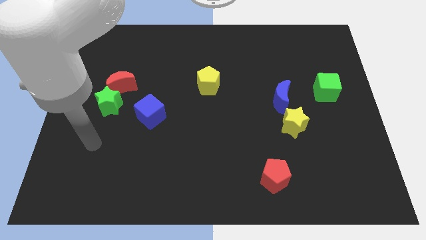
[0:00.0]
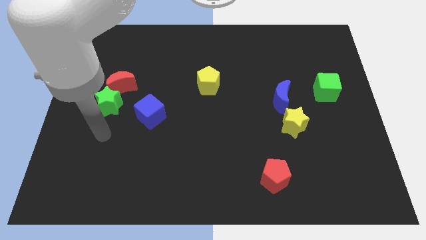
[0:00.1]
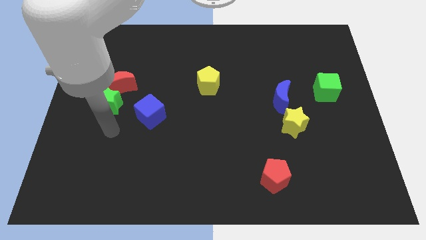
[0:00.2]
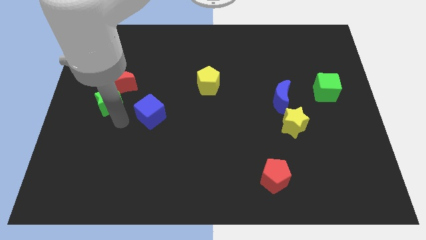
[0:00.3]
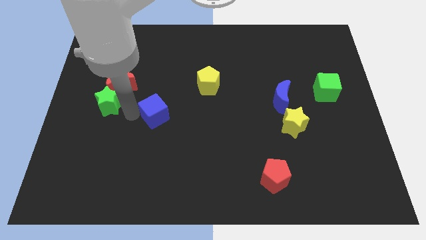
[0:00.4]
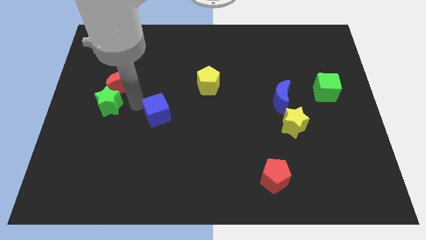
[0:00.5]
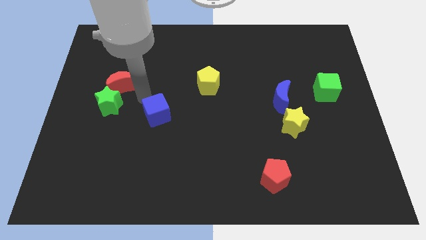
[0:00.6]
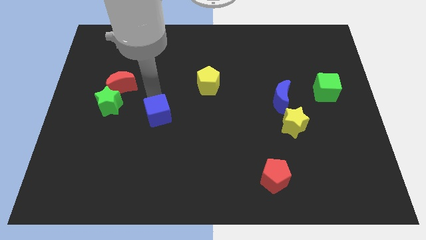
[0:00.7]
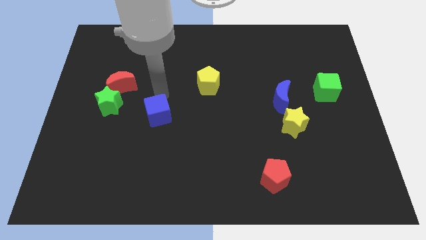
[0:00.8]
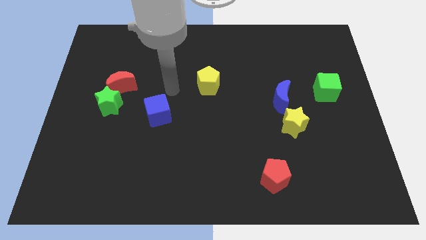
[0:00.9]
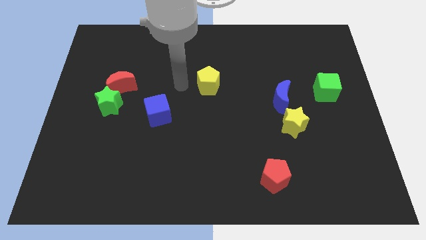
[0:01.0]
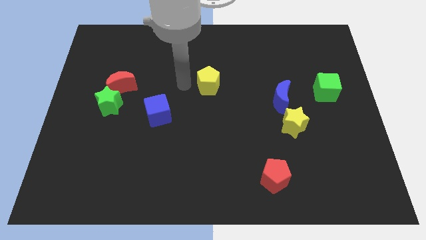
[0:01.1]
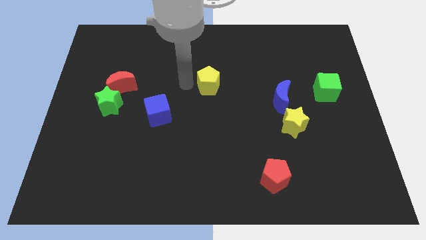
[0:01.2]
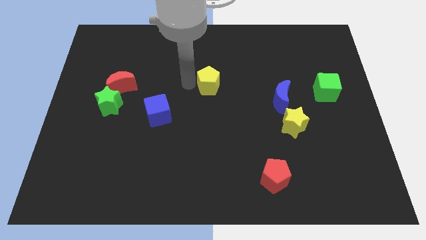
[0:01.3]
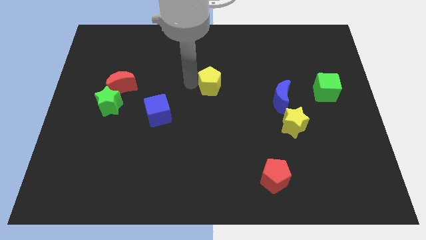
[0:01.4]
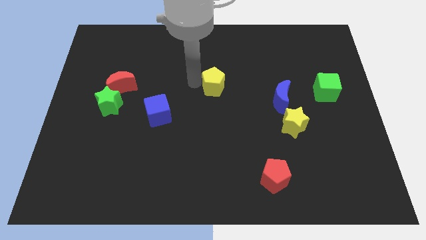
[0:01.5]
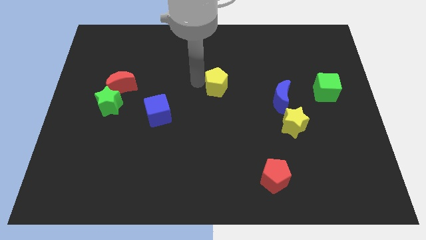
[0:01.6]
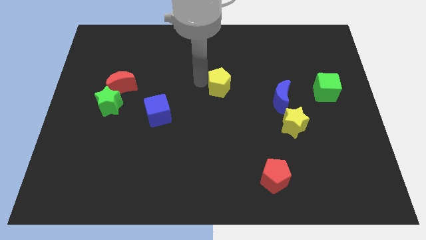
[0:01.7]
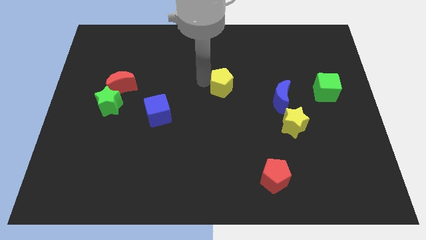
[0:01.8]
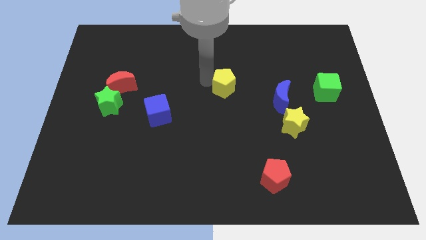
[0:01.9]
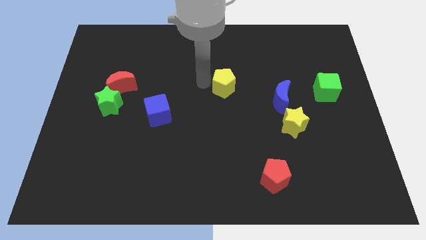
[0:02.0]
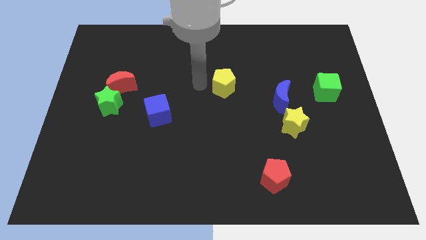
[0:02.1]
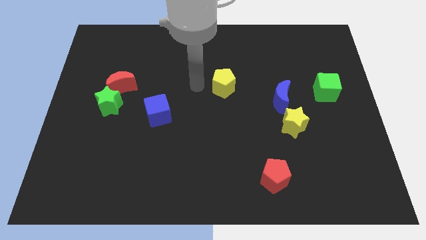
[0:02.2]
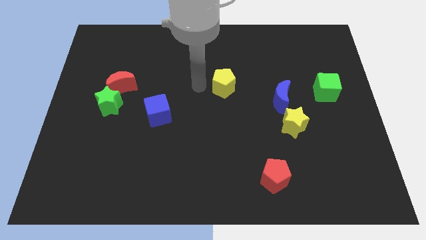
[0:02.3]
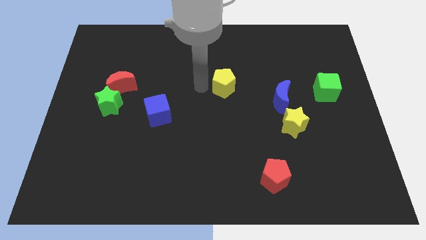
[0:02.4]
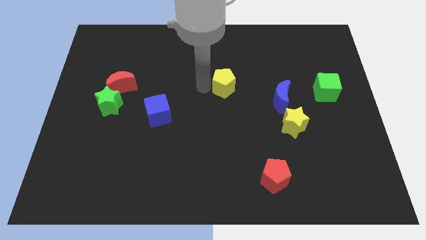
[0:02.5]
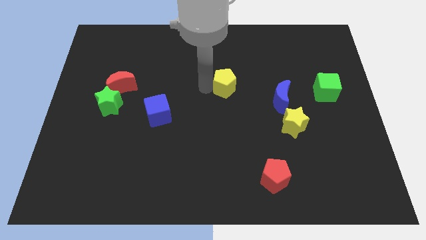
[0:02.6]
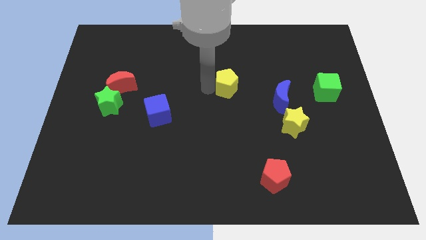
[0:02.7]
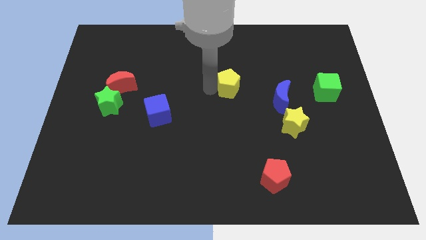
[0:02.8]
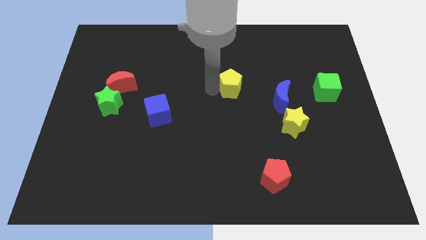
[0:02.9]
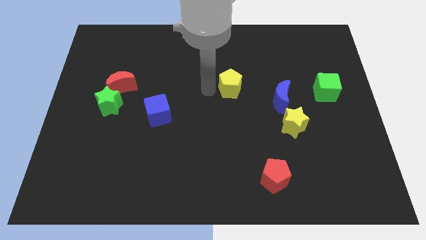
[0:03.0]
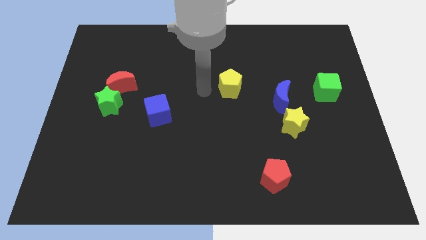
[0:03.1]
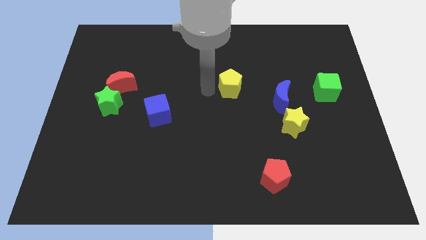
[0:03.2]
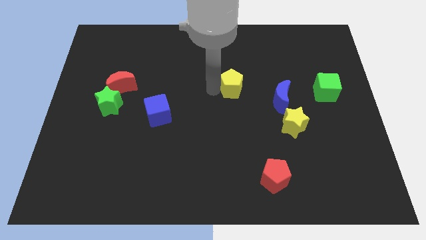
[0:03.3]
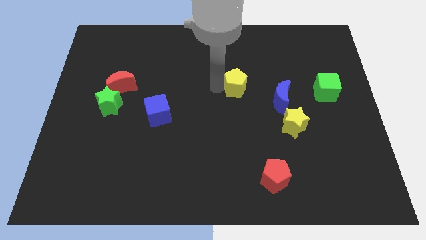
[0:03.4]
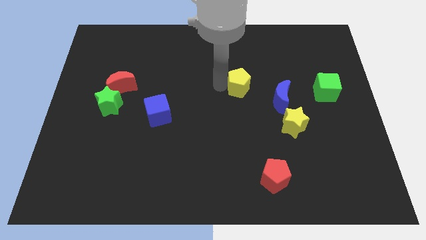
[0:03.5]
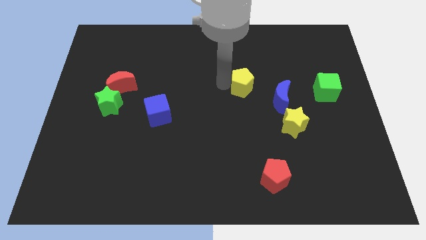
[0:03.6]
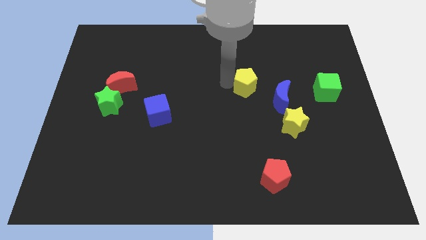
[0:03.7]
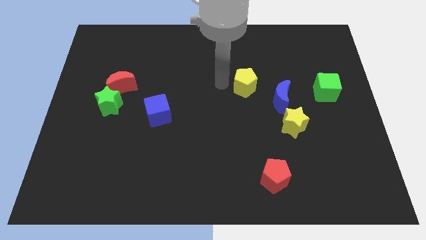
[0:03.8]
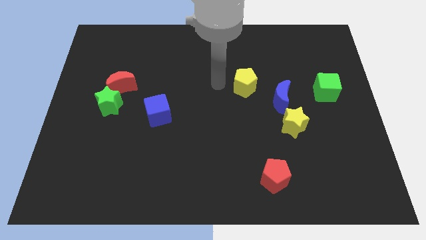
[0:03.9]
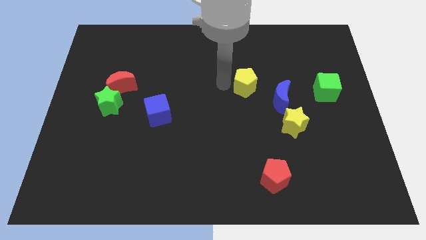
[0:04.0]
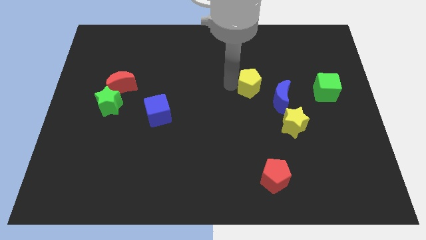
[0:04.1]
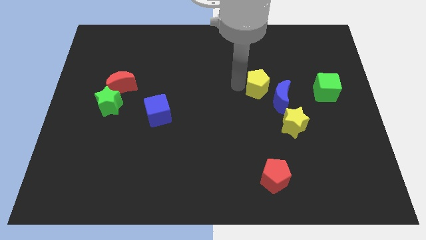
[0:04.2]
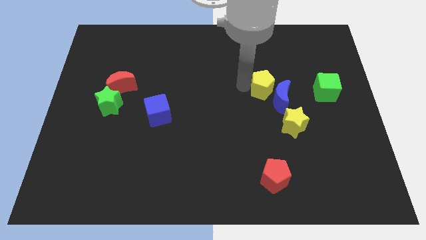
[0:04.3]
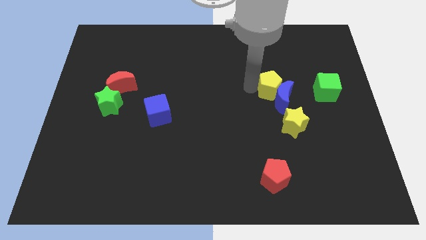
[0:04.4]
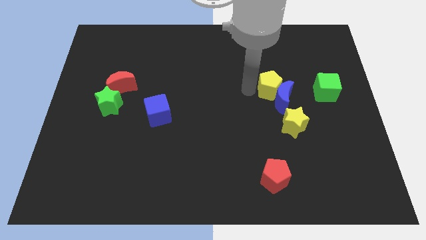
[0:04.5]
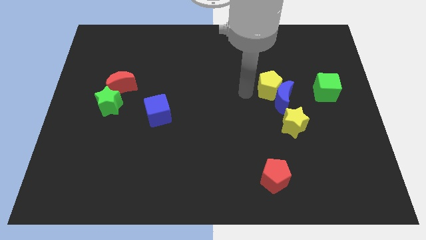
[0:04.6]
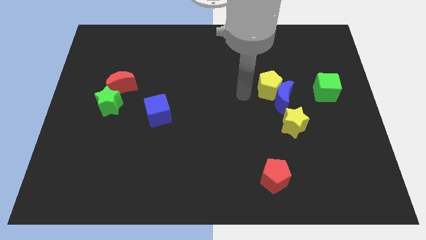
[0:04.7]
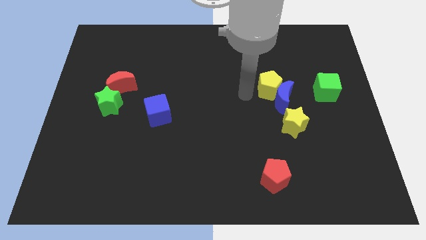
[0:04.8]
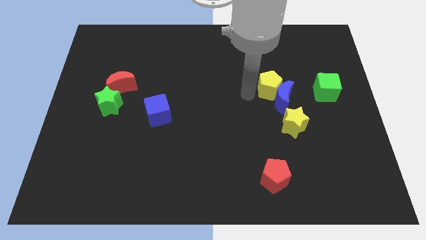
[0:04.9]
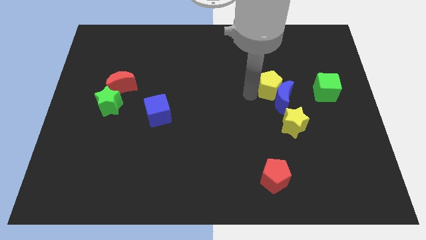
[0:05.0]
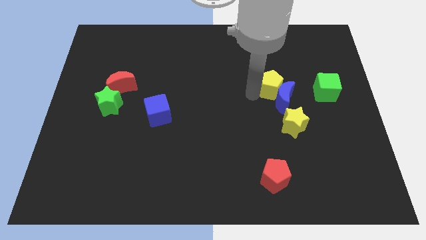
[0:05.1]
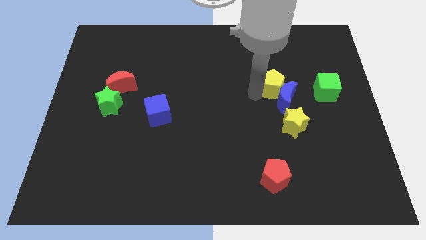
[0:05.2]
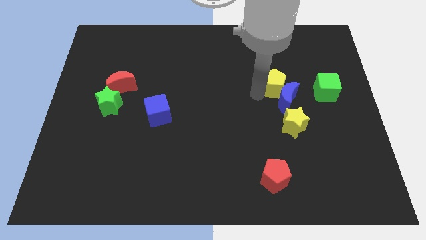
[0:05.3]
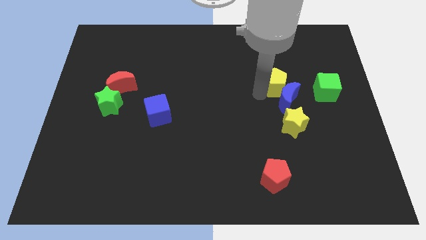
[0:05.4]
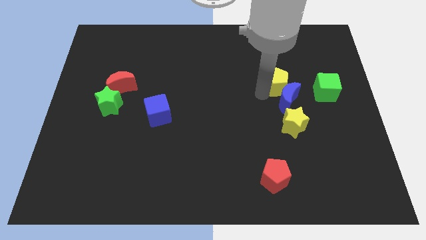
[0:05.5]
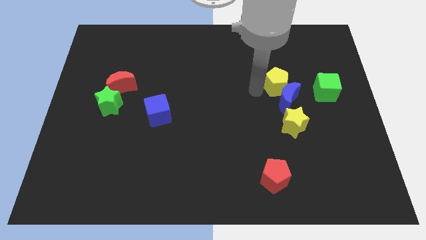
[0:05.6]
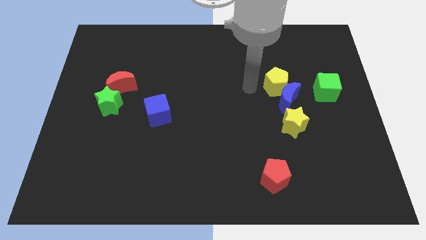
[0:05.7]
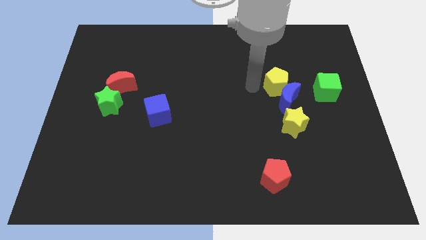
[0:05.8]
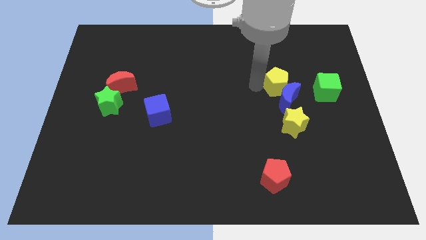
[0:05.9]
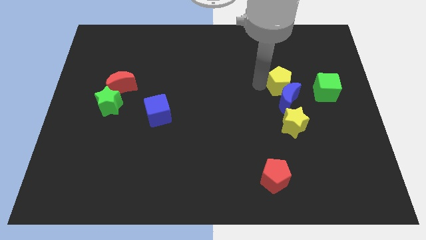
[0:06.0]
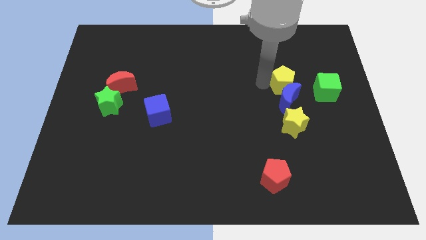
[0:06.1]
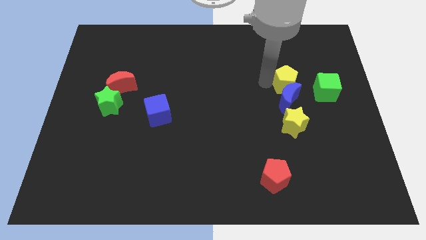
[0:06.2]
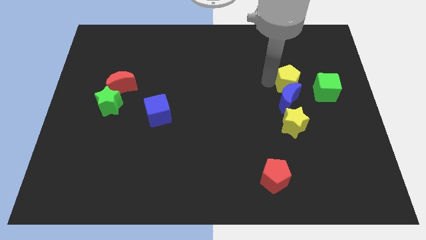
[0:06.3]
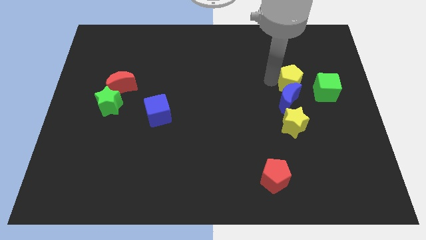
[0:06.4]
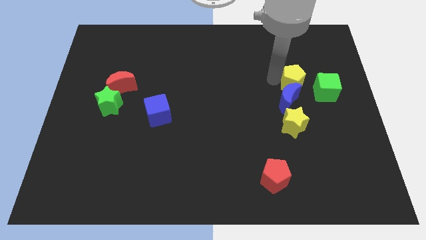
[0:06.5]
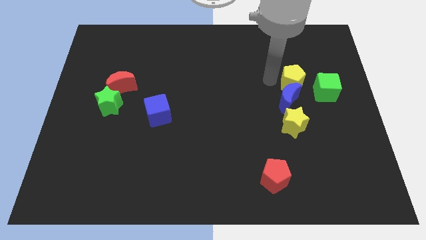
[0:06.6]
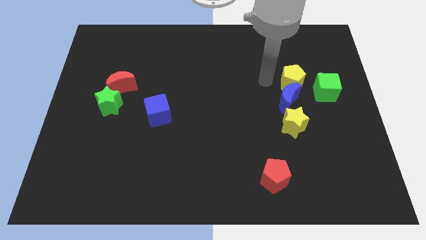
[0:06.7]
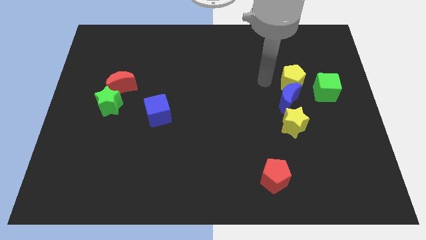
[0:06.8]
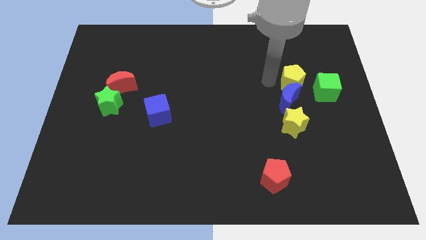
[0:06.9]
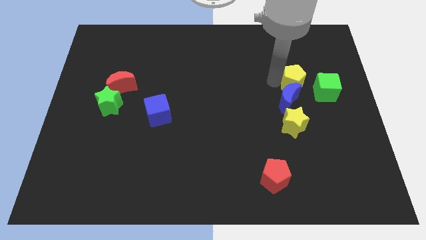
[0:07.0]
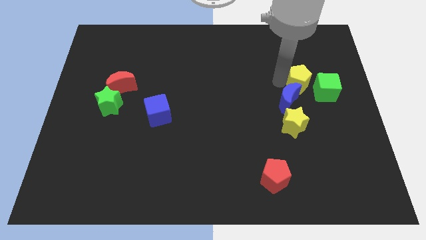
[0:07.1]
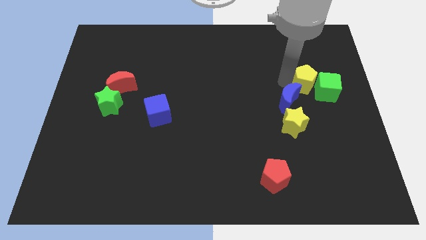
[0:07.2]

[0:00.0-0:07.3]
move the yellow pentagon towards the green cube
